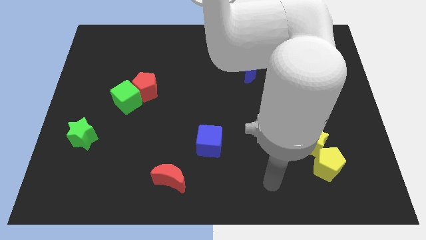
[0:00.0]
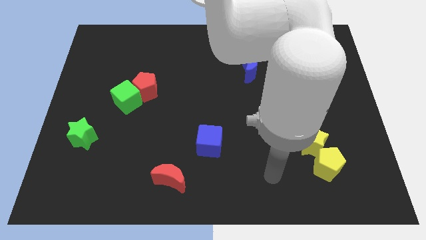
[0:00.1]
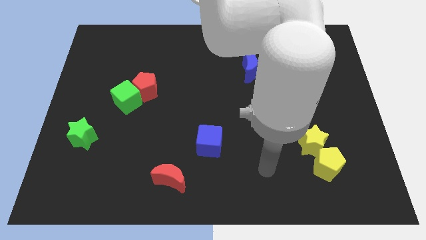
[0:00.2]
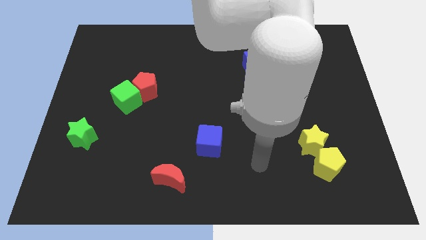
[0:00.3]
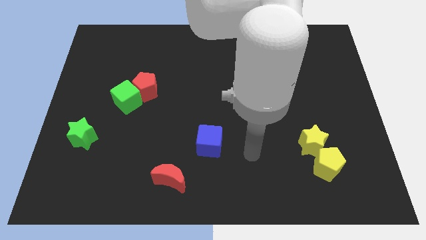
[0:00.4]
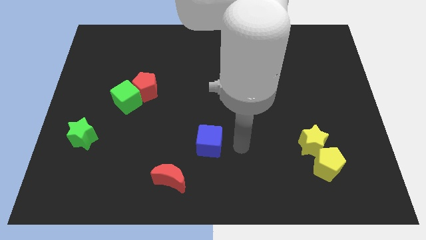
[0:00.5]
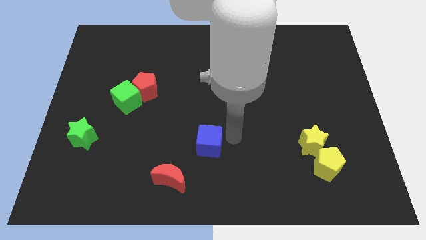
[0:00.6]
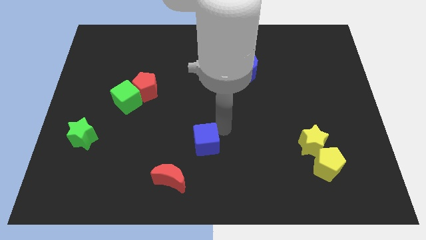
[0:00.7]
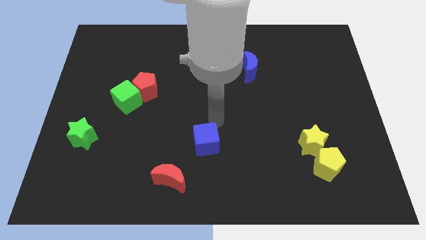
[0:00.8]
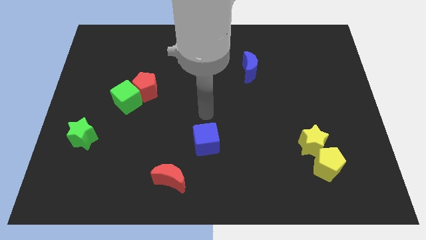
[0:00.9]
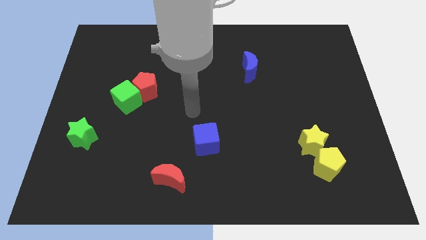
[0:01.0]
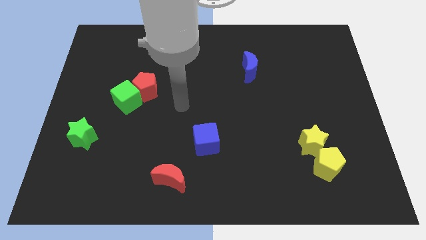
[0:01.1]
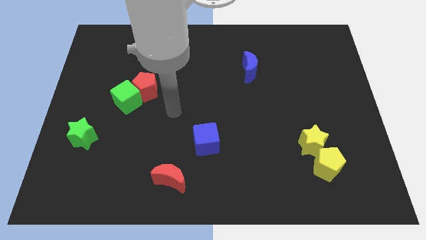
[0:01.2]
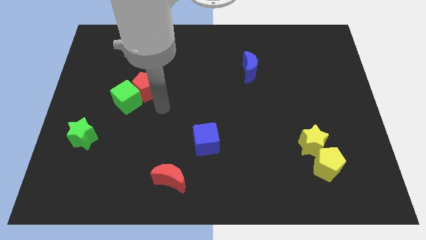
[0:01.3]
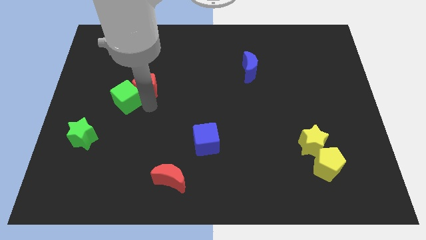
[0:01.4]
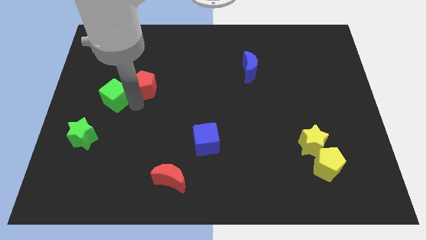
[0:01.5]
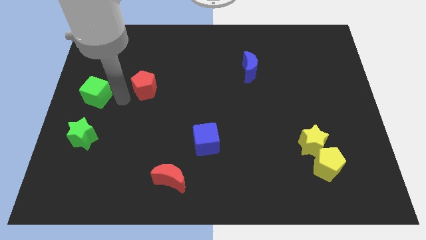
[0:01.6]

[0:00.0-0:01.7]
separate the red pentagon from the green cube

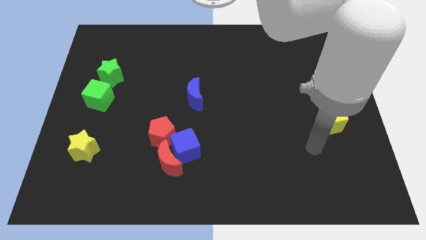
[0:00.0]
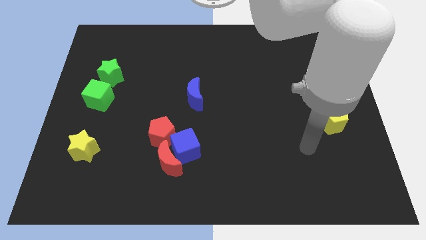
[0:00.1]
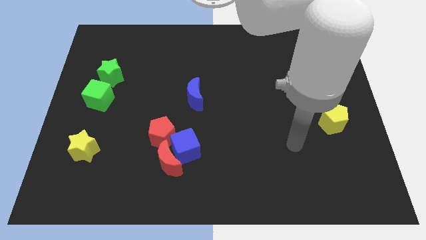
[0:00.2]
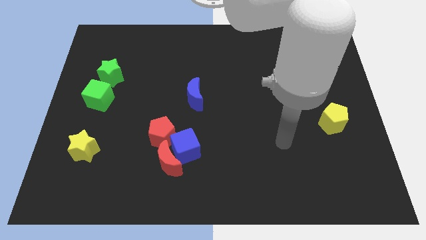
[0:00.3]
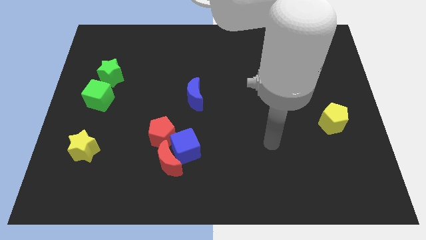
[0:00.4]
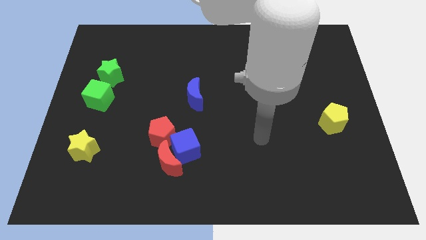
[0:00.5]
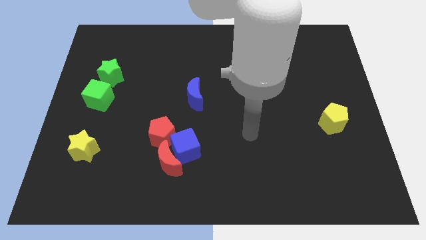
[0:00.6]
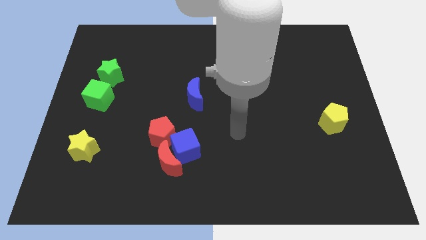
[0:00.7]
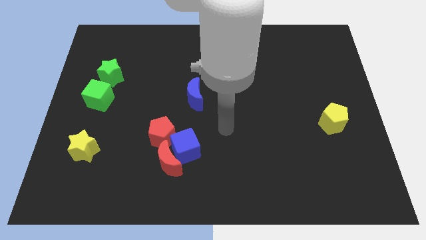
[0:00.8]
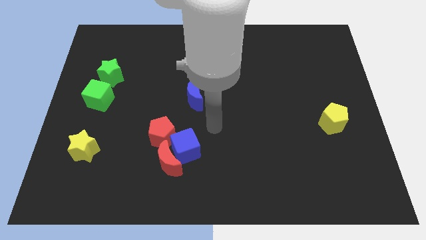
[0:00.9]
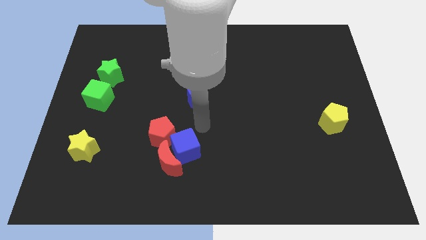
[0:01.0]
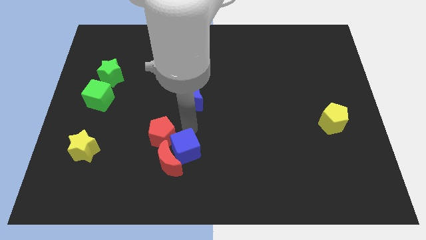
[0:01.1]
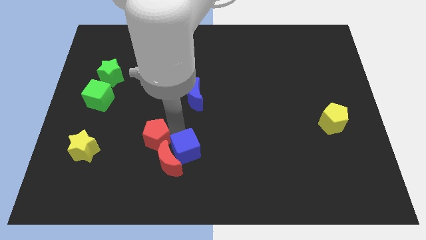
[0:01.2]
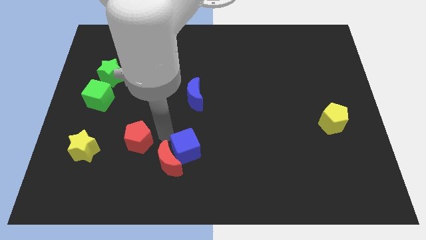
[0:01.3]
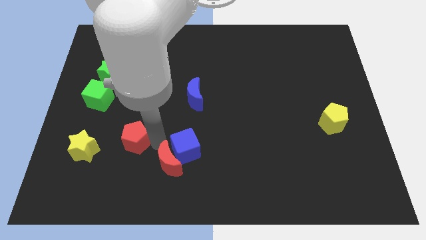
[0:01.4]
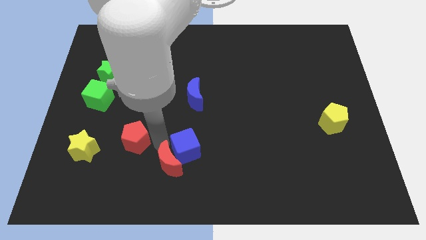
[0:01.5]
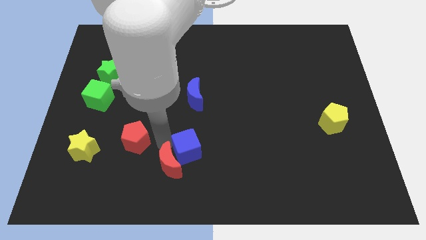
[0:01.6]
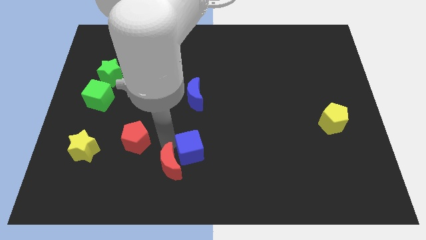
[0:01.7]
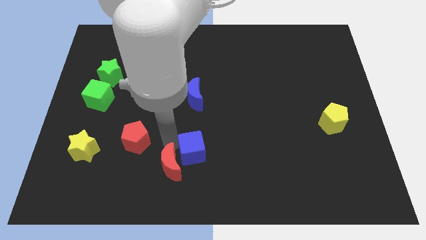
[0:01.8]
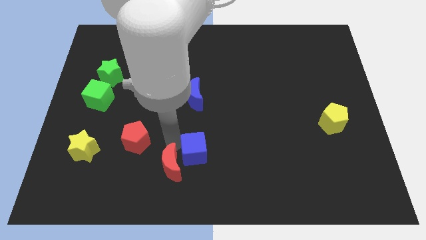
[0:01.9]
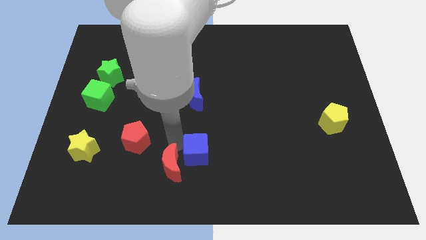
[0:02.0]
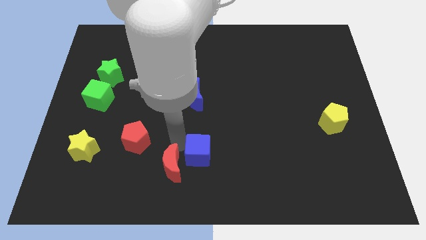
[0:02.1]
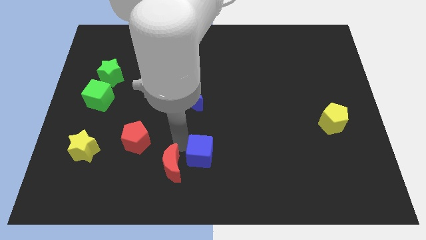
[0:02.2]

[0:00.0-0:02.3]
move the blue cube away from the red moon and red pentagon

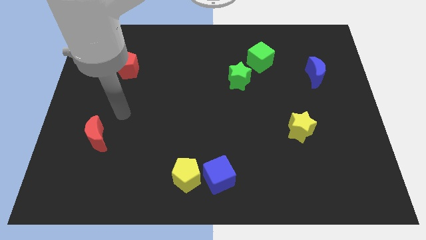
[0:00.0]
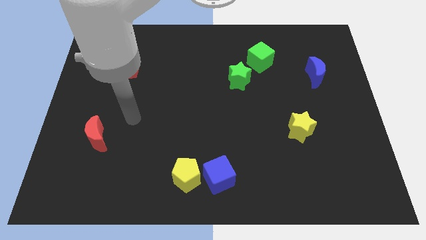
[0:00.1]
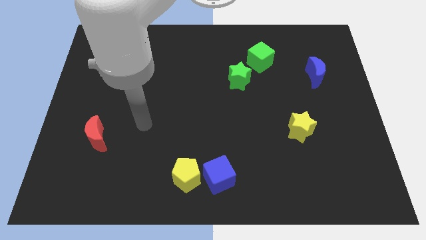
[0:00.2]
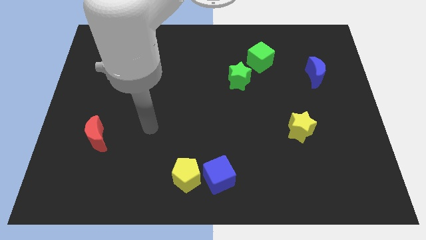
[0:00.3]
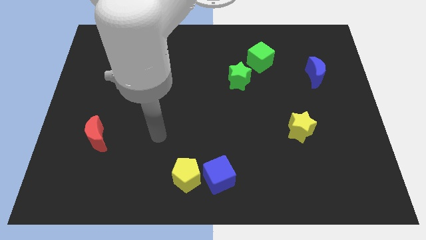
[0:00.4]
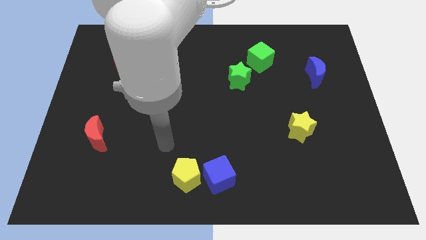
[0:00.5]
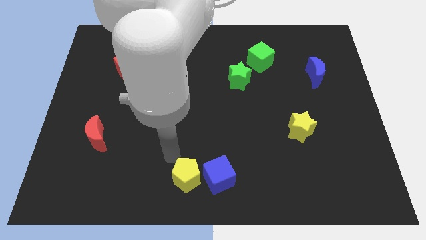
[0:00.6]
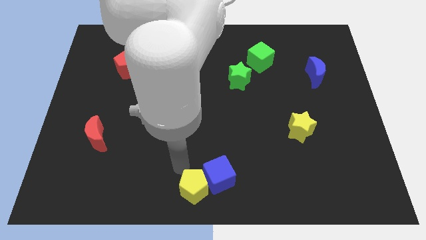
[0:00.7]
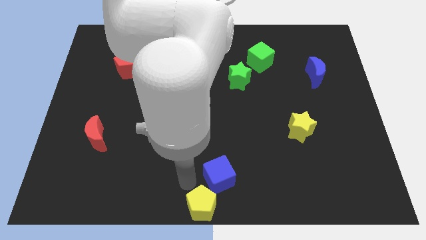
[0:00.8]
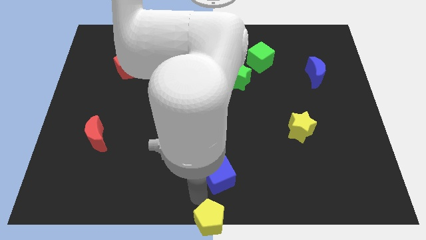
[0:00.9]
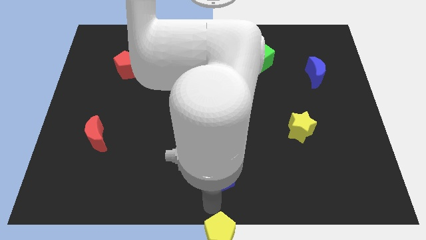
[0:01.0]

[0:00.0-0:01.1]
pull the blue cube apart from the yellow pentagon

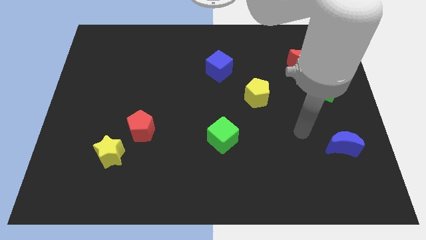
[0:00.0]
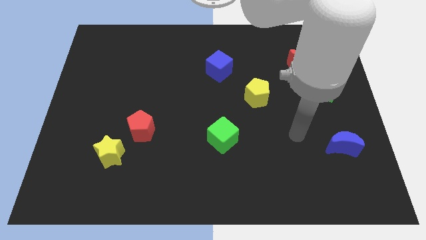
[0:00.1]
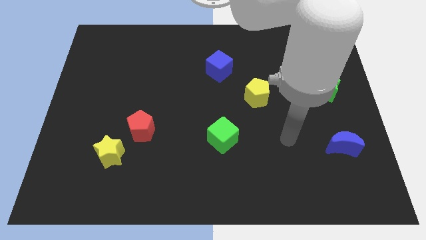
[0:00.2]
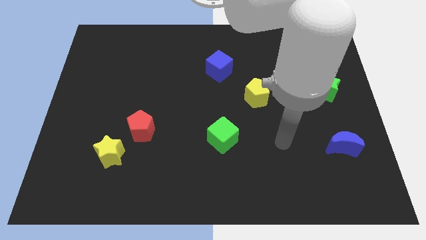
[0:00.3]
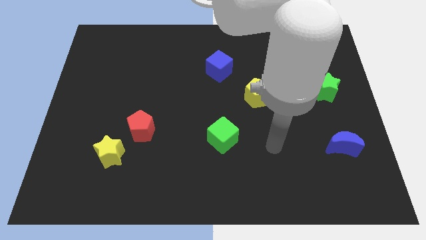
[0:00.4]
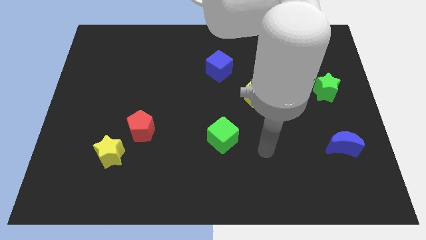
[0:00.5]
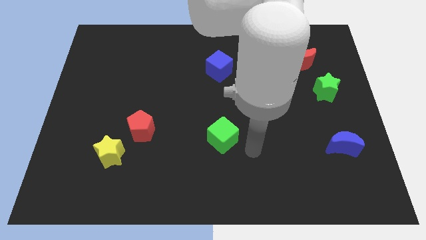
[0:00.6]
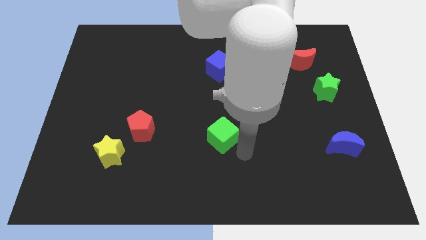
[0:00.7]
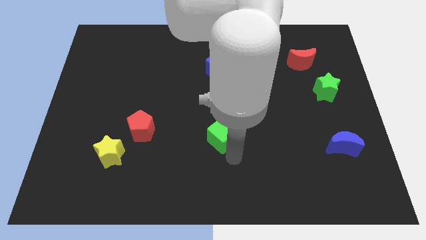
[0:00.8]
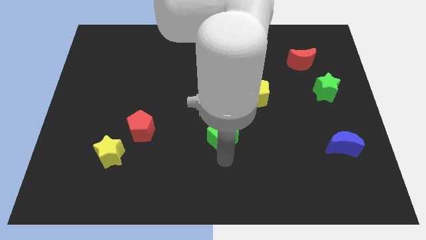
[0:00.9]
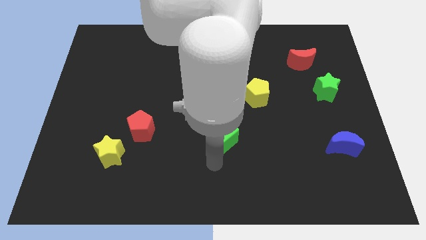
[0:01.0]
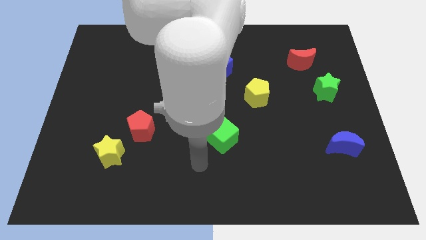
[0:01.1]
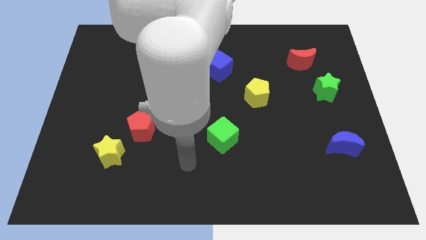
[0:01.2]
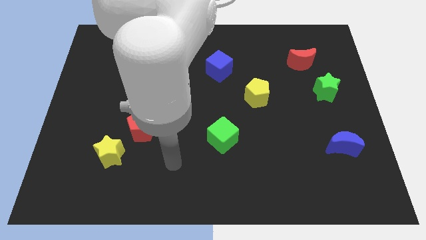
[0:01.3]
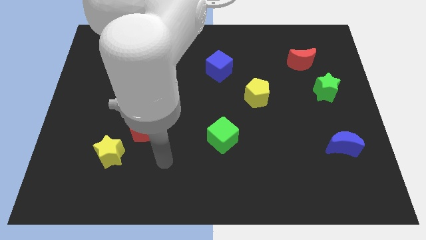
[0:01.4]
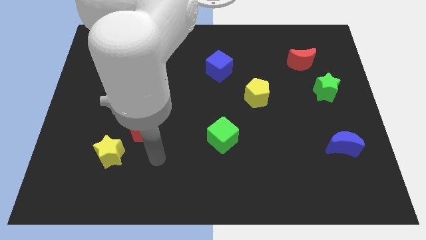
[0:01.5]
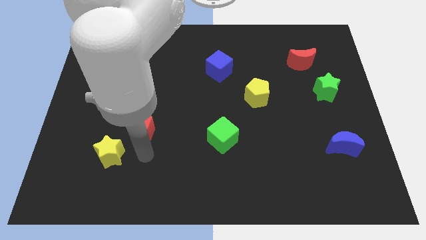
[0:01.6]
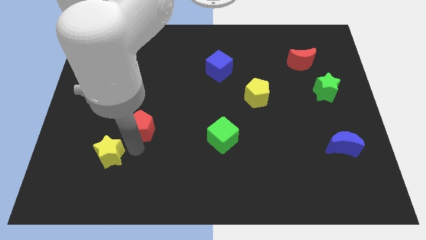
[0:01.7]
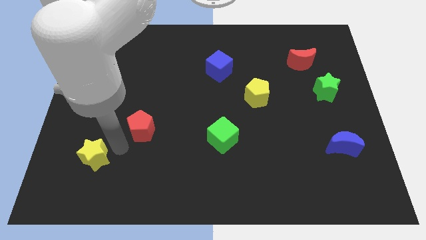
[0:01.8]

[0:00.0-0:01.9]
pull the red pentagon apart from the yellow star

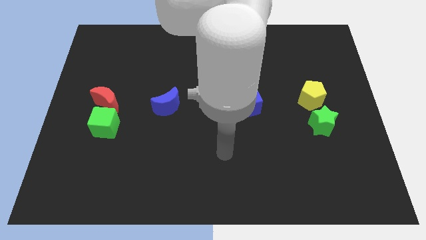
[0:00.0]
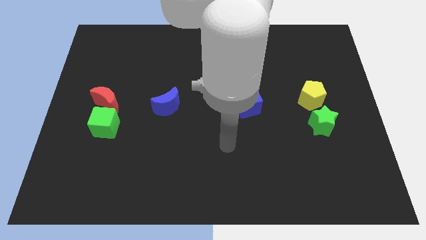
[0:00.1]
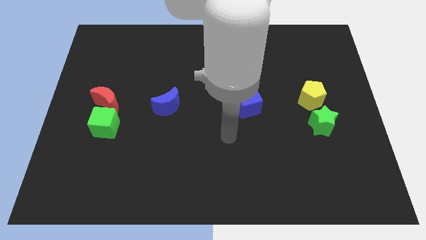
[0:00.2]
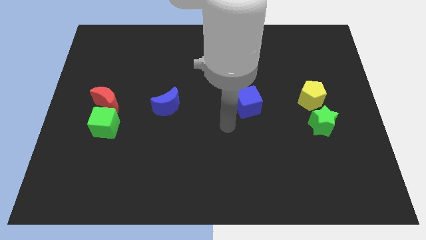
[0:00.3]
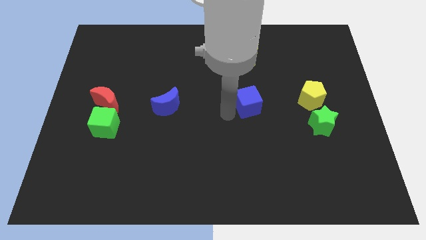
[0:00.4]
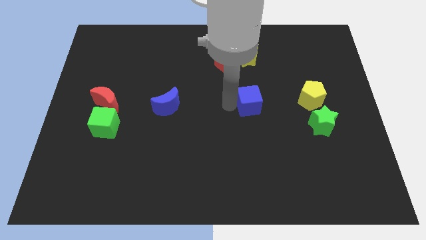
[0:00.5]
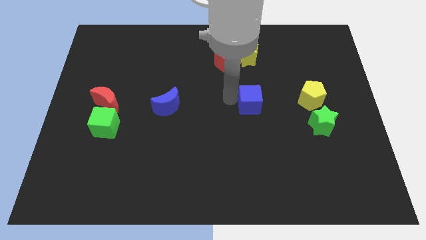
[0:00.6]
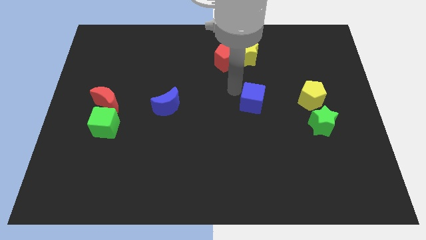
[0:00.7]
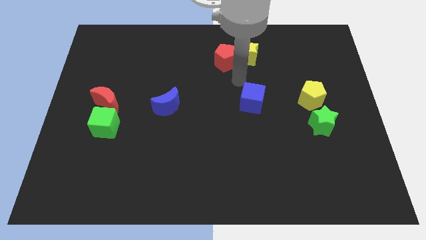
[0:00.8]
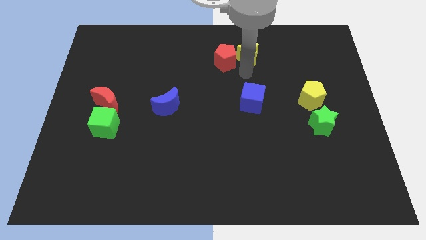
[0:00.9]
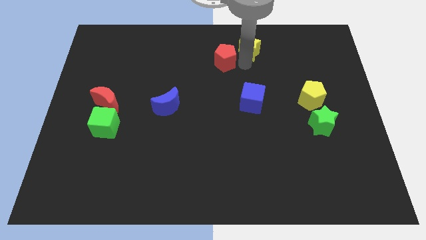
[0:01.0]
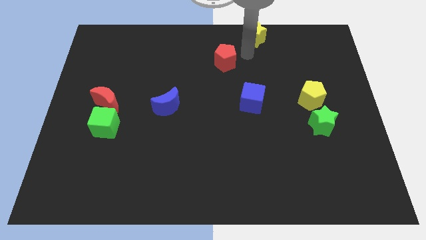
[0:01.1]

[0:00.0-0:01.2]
separate the red pentagon from the yellow star

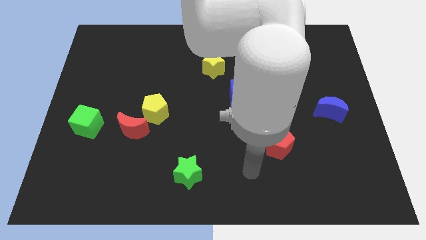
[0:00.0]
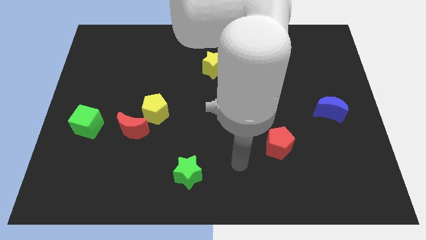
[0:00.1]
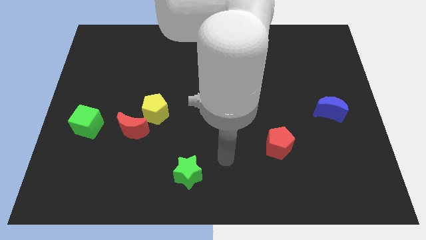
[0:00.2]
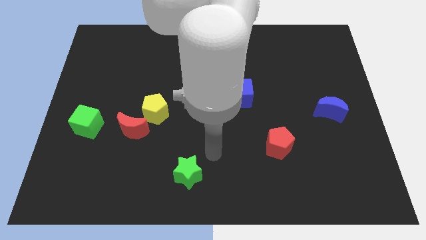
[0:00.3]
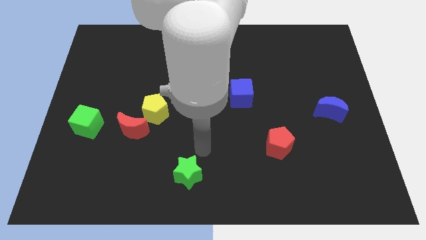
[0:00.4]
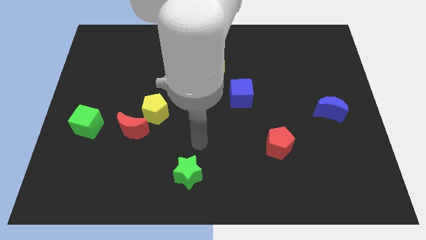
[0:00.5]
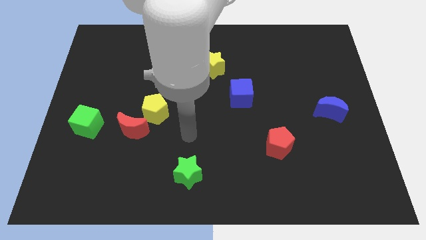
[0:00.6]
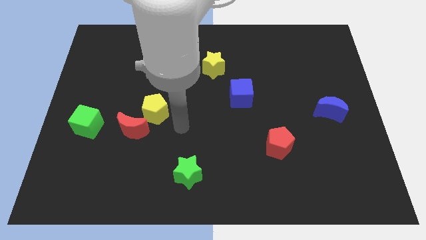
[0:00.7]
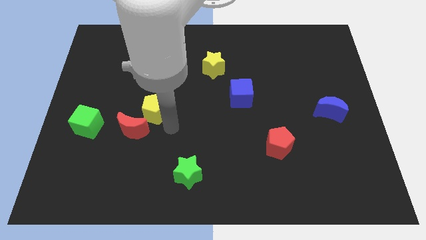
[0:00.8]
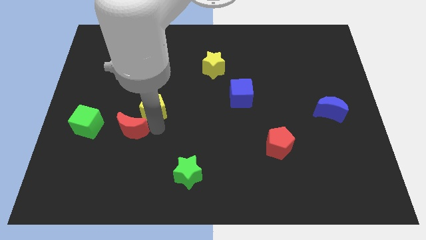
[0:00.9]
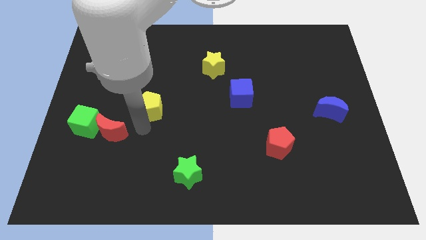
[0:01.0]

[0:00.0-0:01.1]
move the yellow pentagon away from the red moon

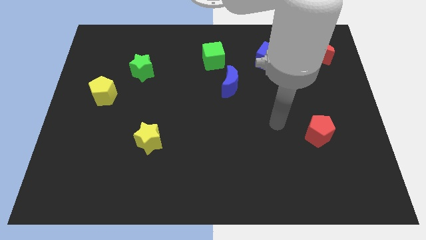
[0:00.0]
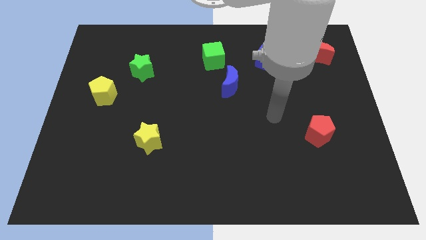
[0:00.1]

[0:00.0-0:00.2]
separate the blue moon from the green cube
